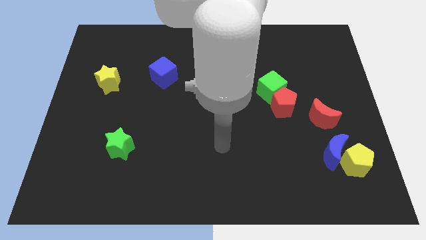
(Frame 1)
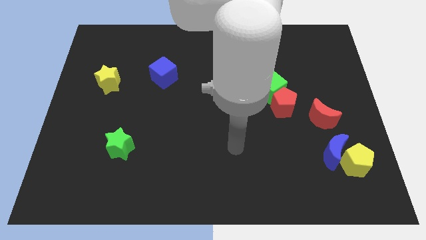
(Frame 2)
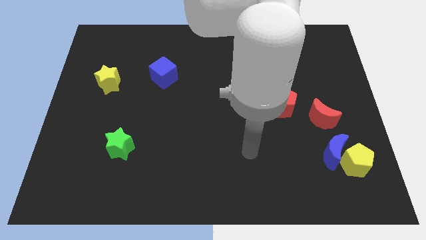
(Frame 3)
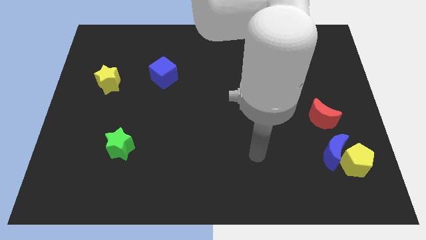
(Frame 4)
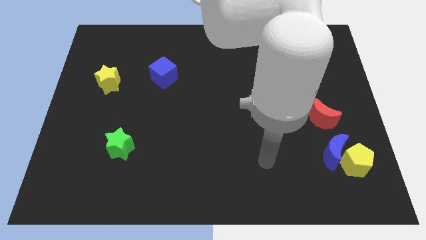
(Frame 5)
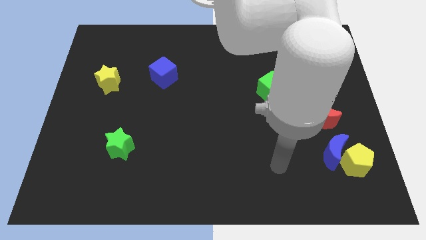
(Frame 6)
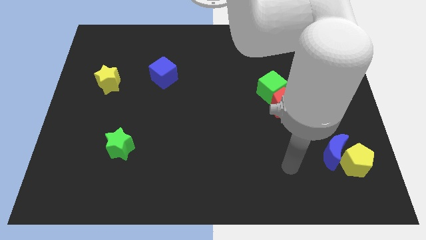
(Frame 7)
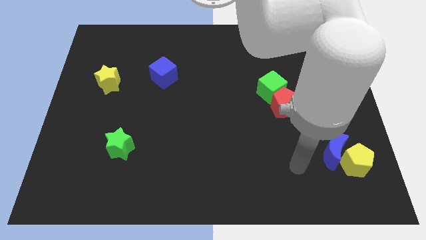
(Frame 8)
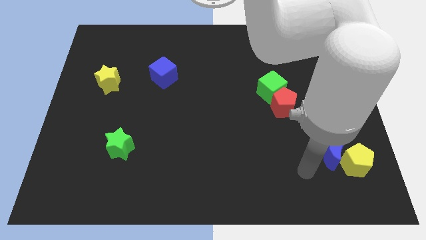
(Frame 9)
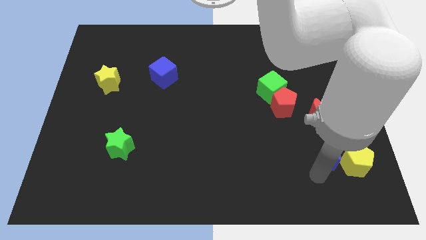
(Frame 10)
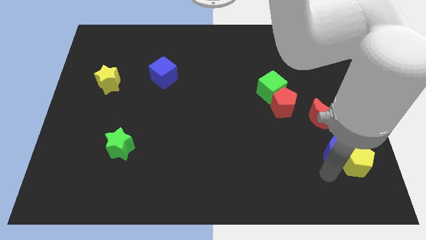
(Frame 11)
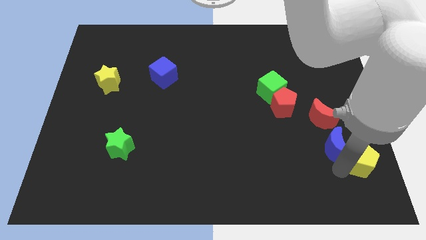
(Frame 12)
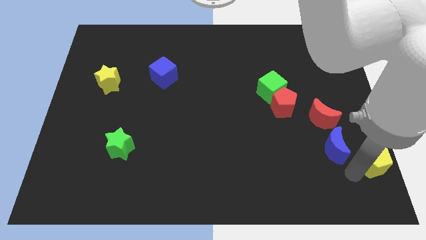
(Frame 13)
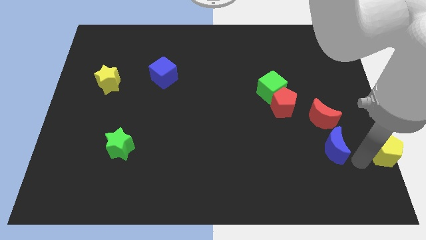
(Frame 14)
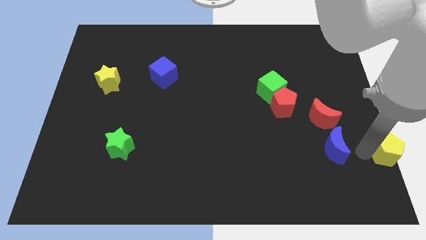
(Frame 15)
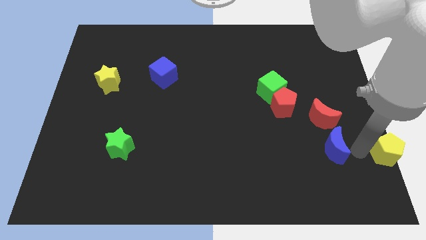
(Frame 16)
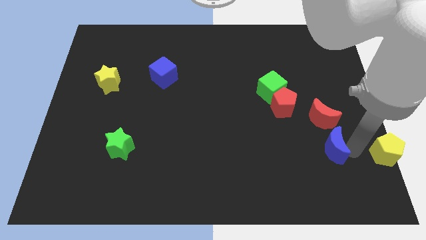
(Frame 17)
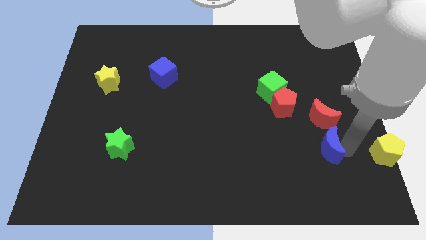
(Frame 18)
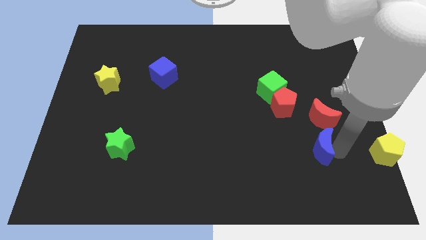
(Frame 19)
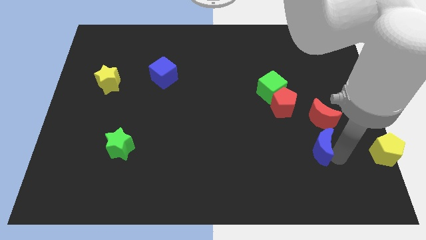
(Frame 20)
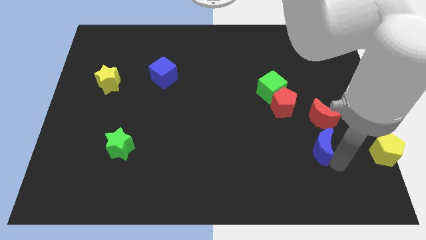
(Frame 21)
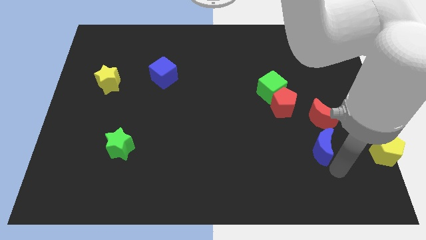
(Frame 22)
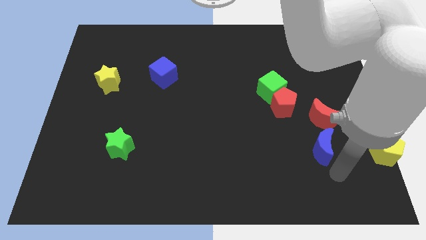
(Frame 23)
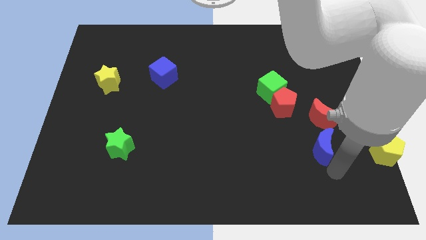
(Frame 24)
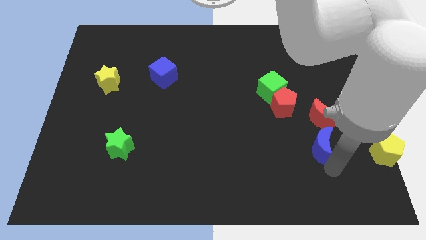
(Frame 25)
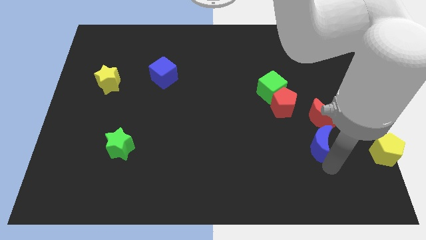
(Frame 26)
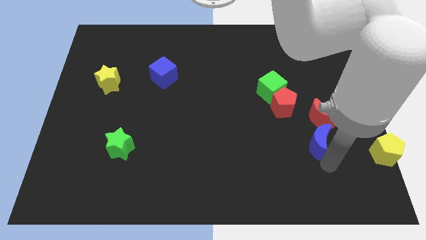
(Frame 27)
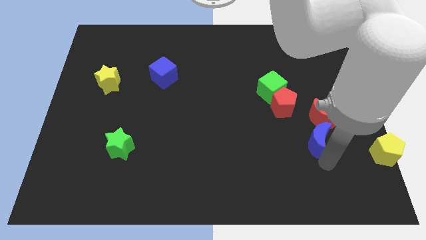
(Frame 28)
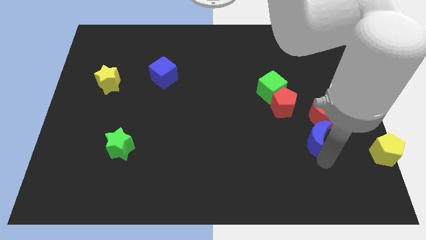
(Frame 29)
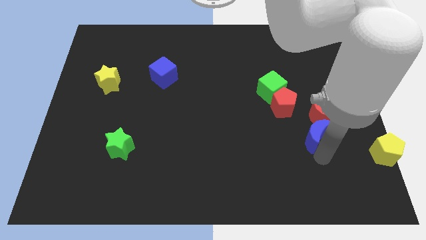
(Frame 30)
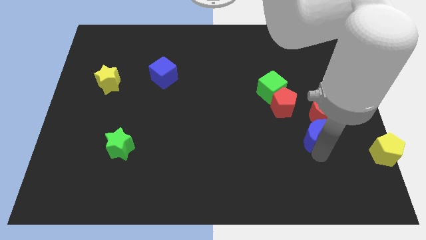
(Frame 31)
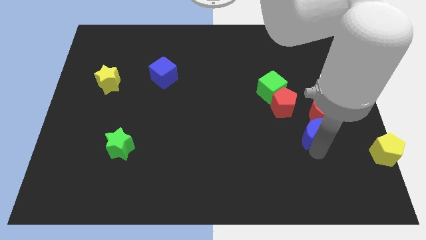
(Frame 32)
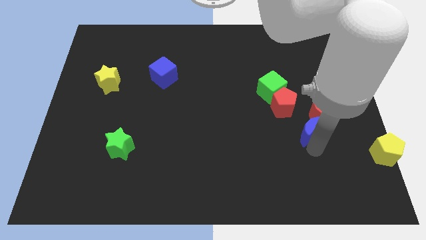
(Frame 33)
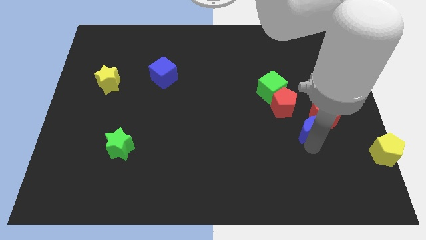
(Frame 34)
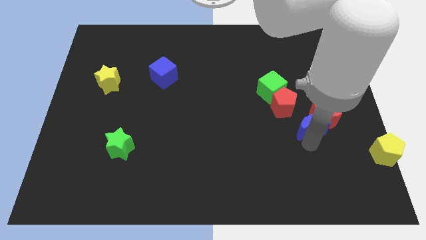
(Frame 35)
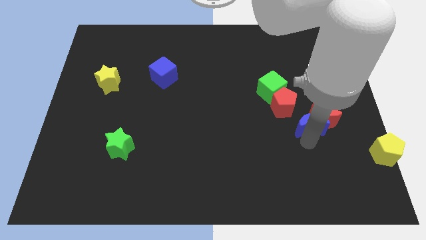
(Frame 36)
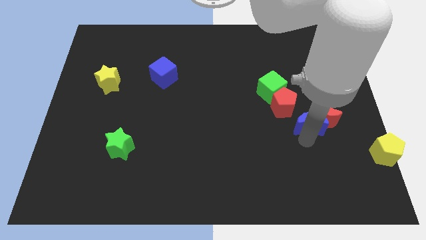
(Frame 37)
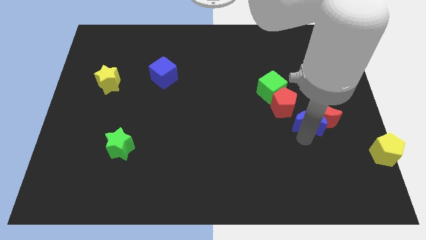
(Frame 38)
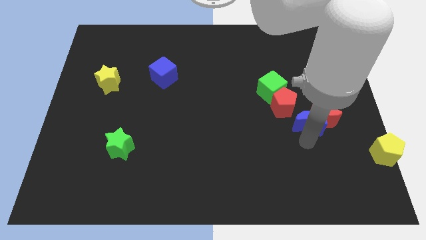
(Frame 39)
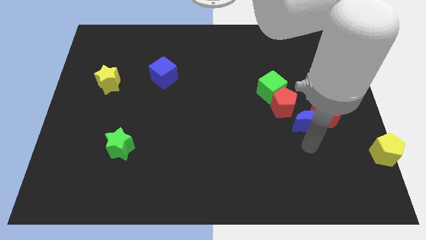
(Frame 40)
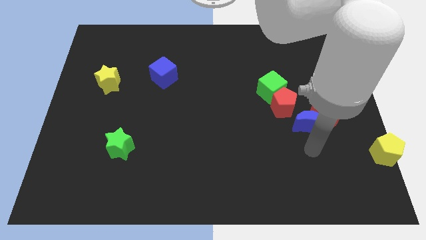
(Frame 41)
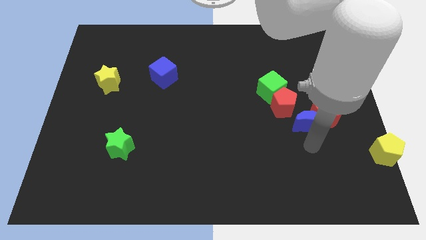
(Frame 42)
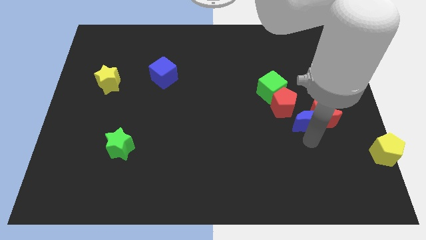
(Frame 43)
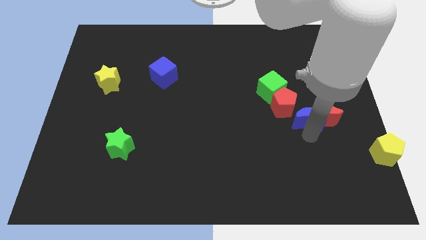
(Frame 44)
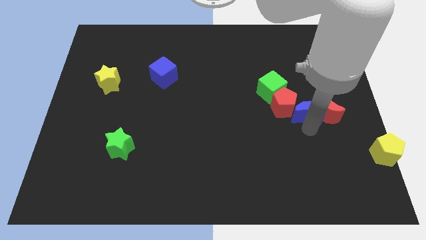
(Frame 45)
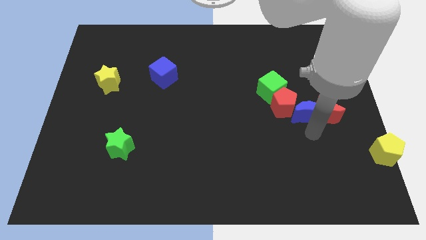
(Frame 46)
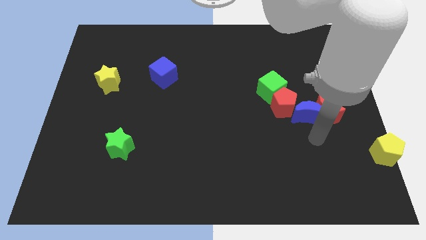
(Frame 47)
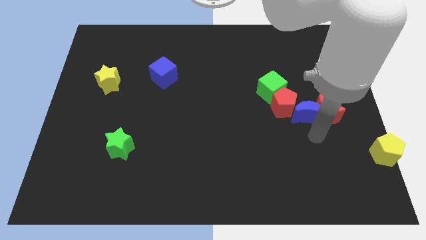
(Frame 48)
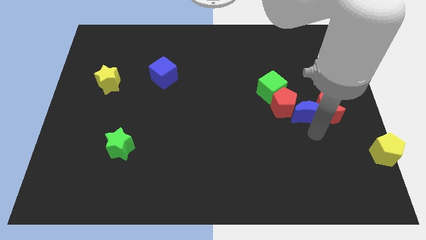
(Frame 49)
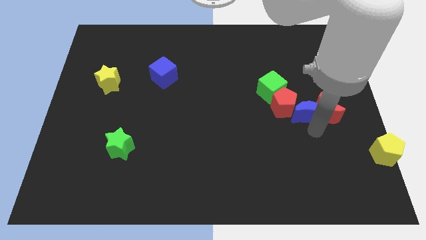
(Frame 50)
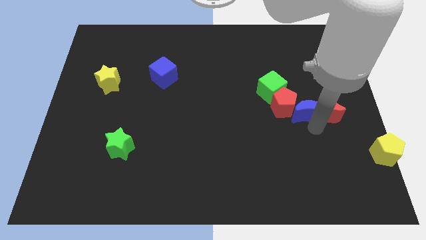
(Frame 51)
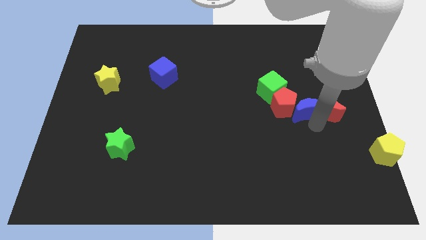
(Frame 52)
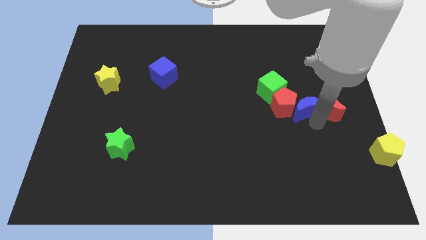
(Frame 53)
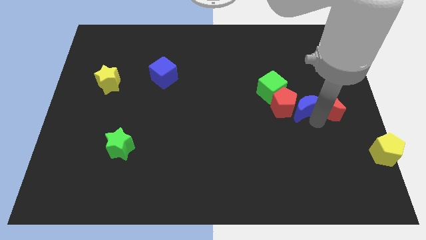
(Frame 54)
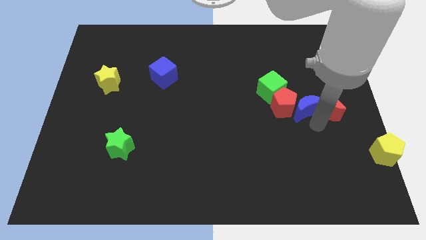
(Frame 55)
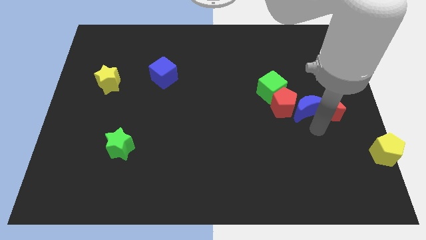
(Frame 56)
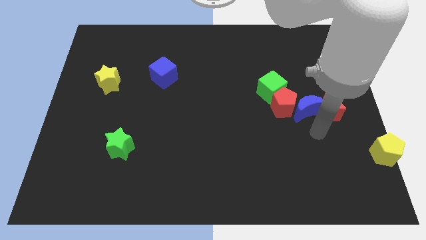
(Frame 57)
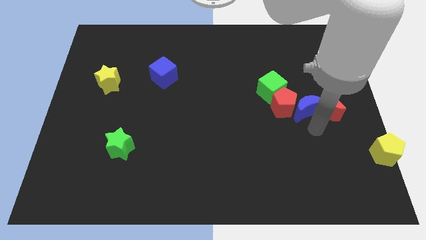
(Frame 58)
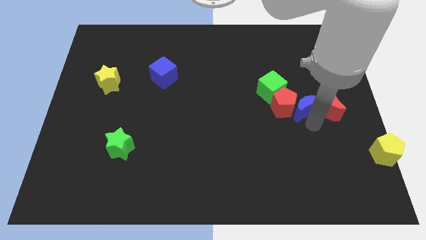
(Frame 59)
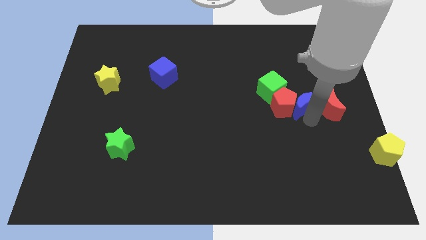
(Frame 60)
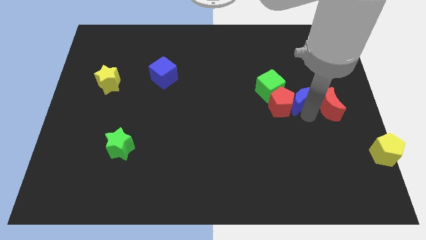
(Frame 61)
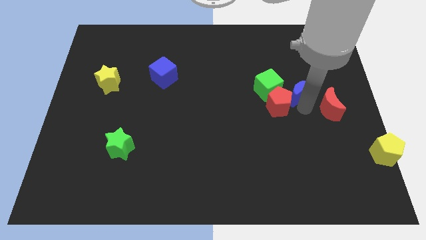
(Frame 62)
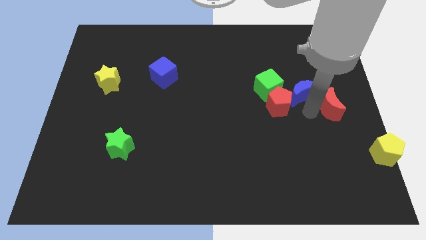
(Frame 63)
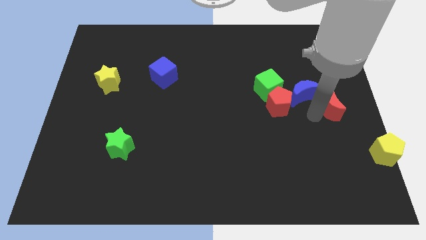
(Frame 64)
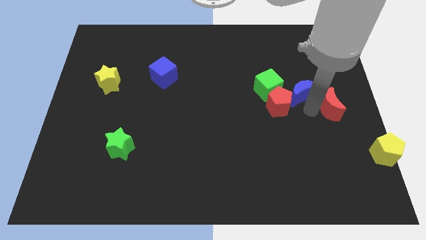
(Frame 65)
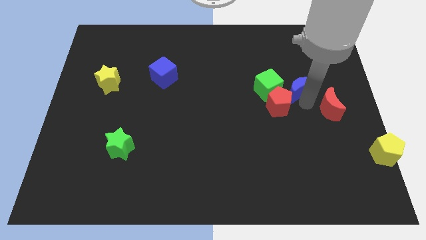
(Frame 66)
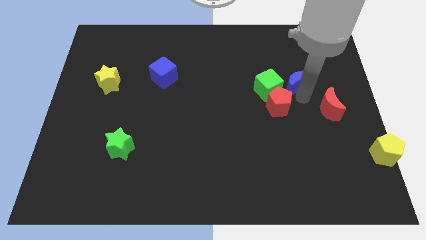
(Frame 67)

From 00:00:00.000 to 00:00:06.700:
put the blue moon diagonally up and to the right of the green cube
